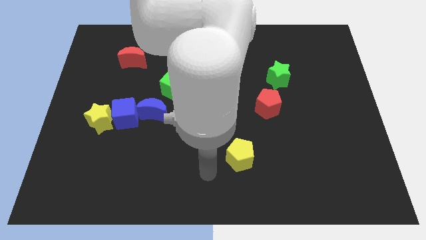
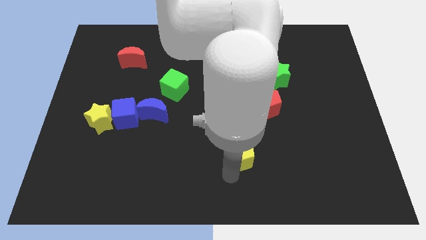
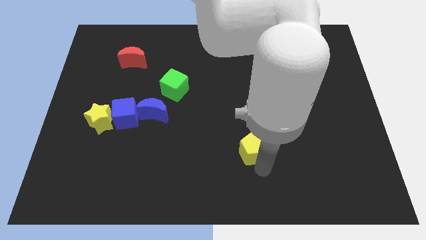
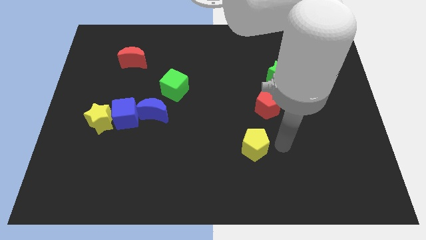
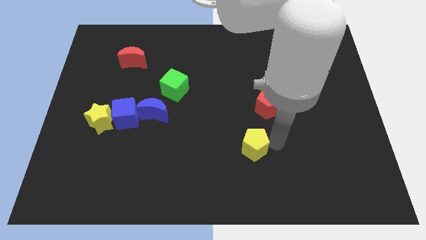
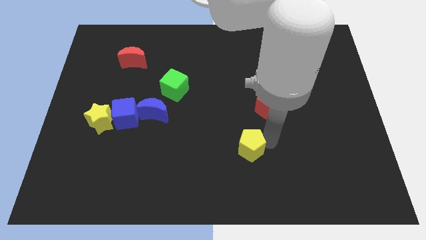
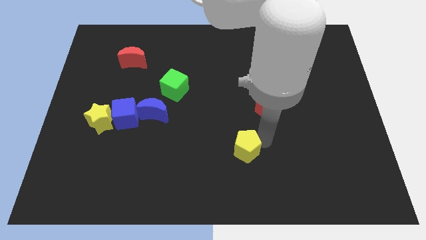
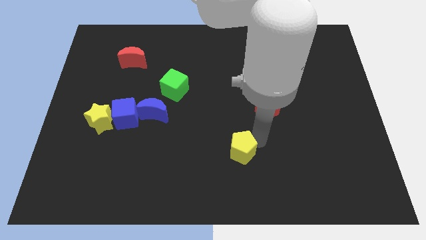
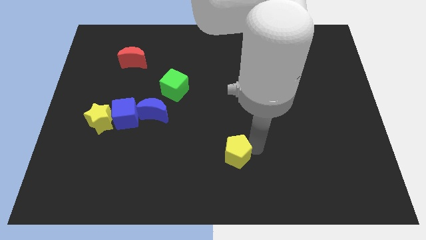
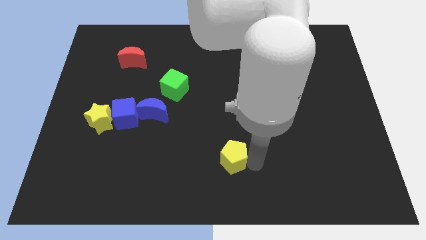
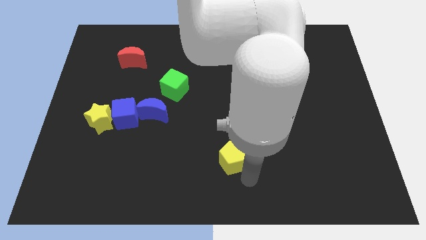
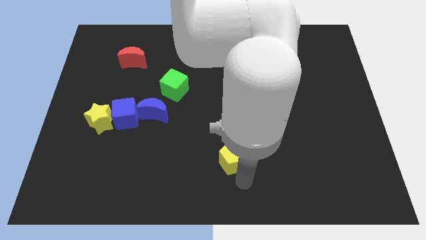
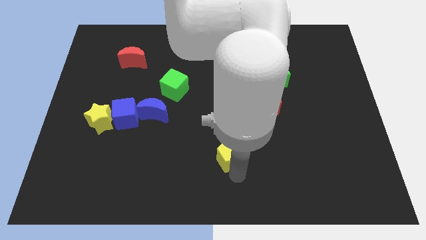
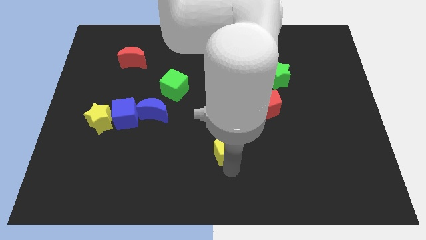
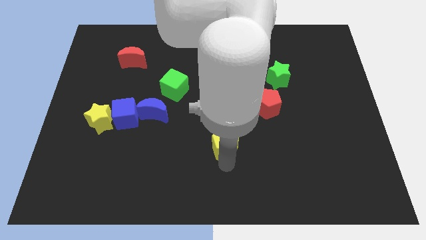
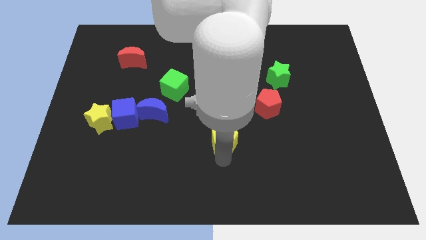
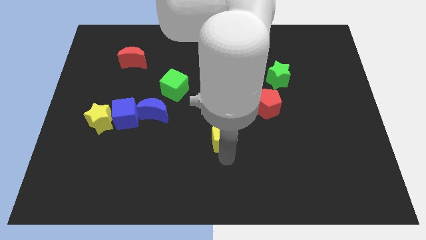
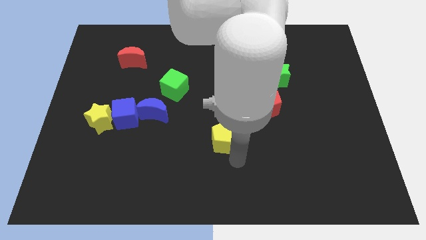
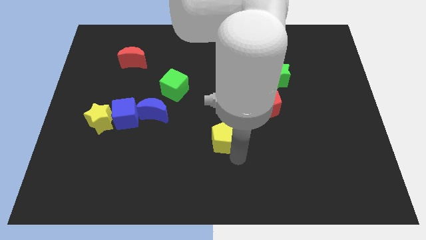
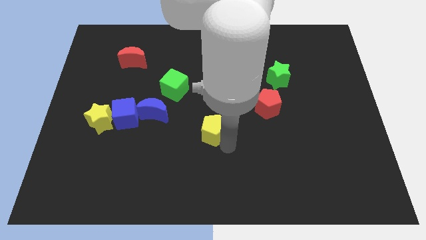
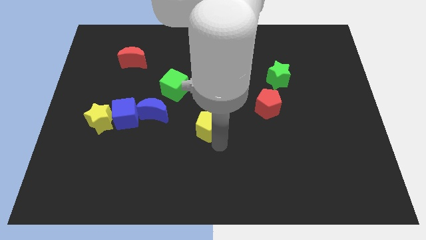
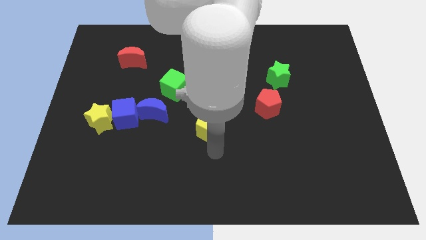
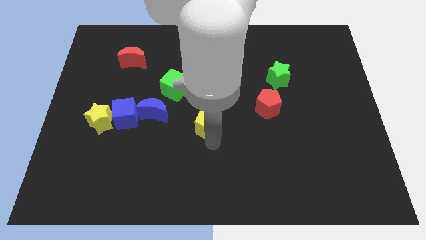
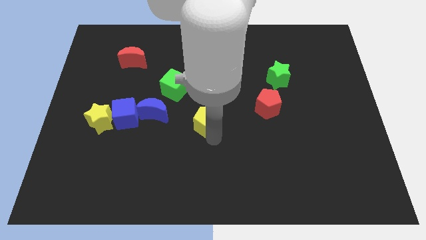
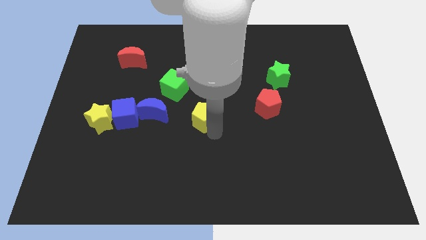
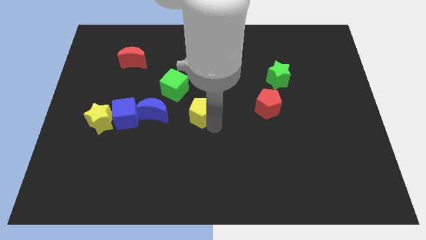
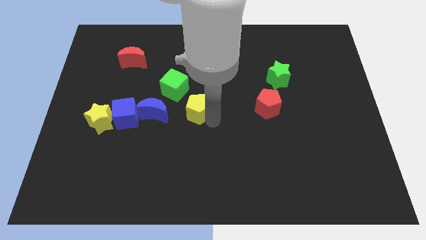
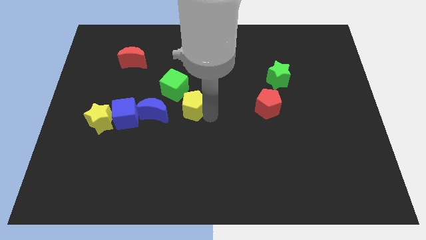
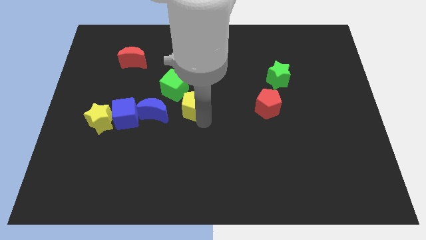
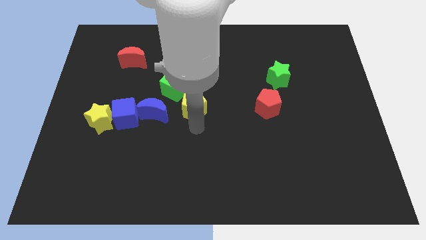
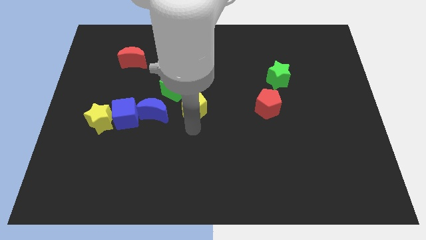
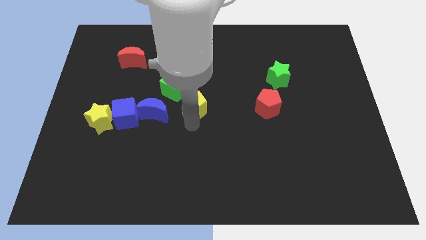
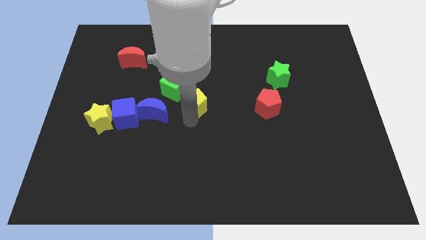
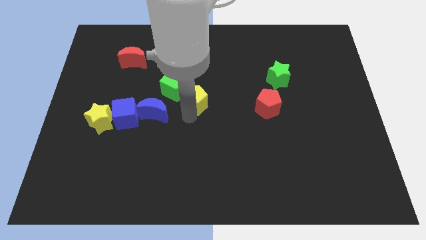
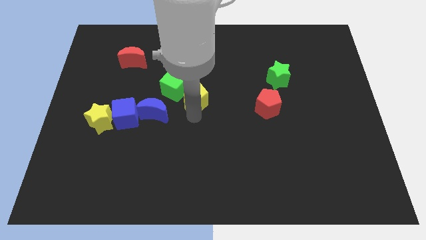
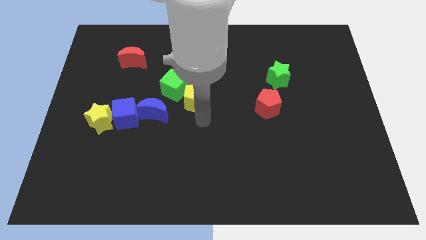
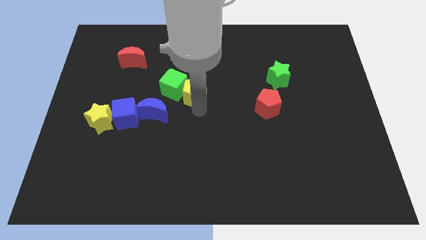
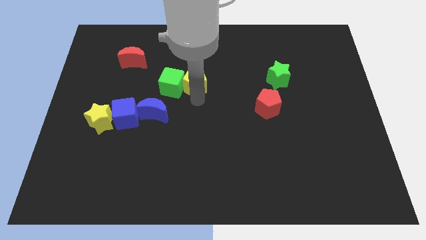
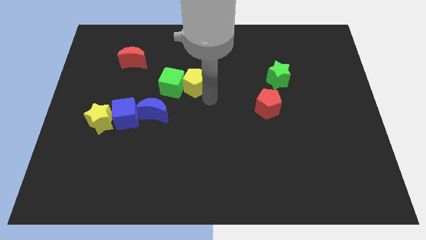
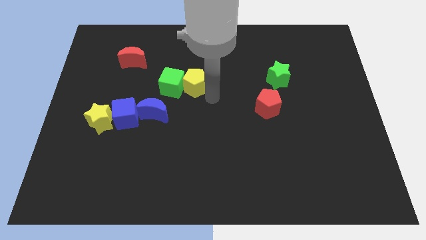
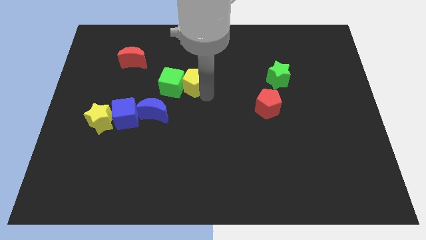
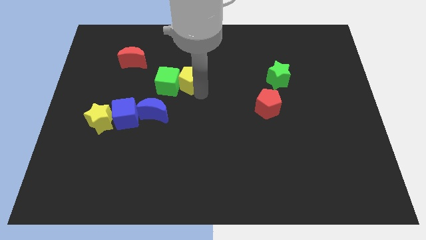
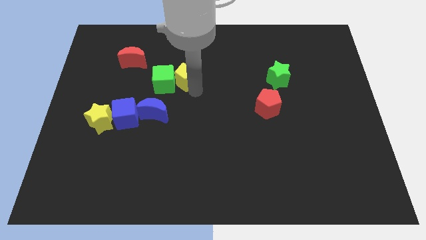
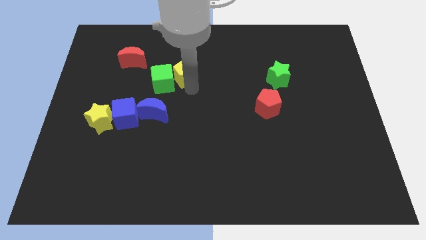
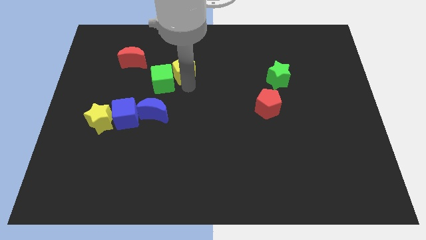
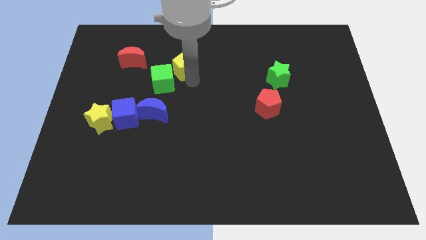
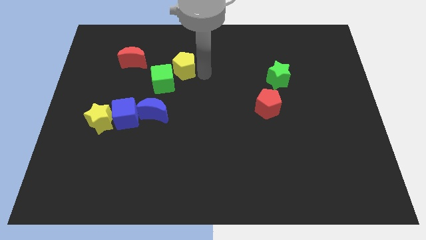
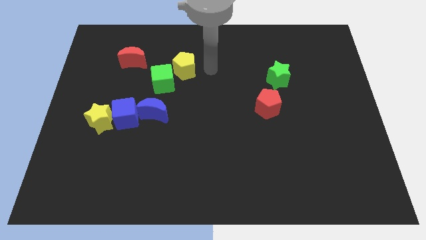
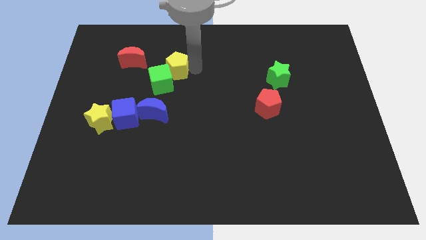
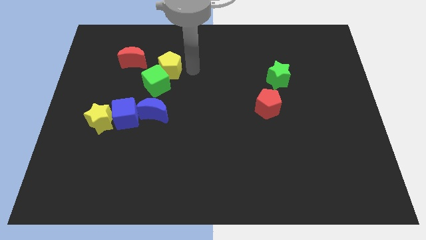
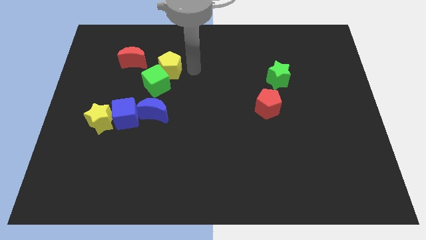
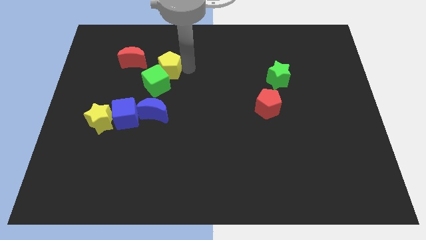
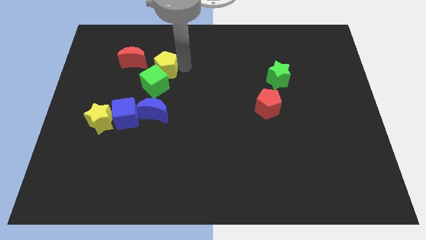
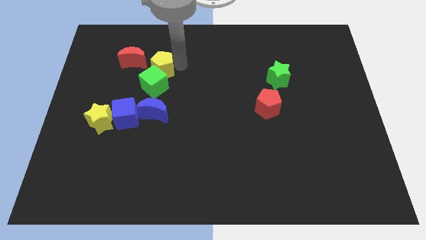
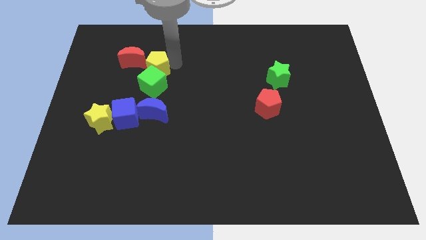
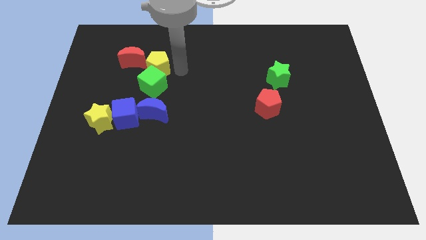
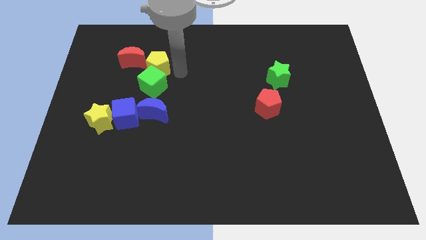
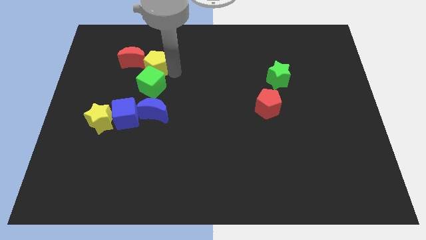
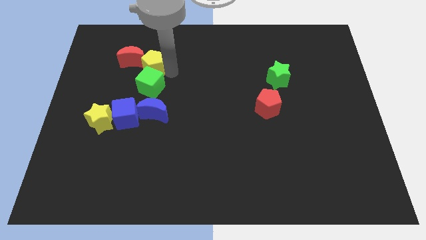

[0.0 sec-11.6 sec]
move the yellow pentagon next to the red moon
